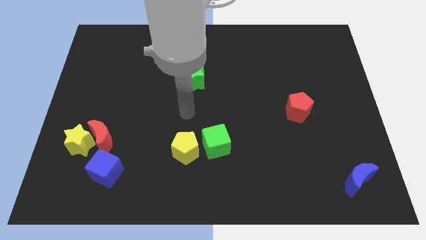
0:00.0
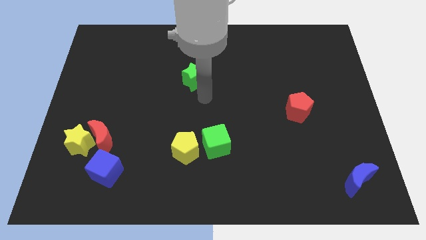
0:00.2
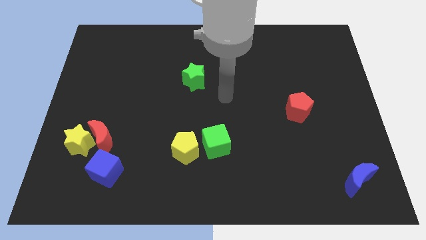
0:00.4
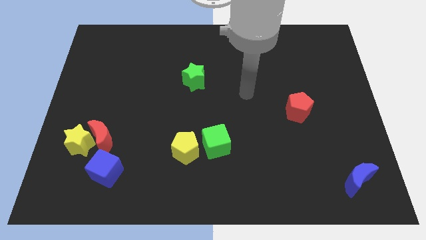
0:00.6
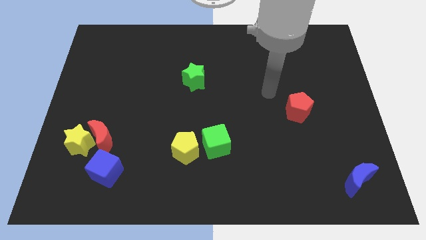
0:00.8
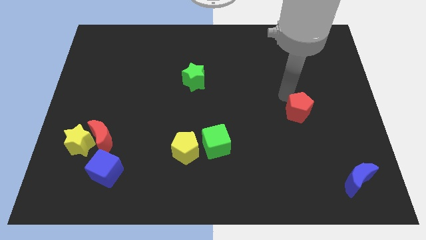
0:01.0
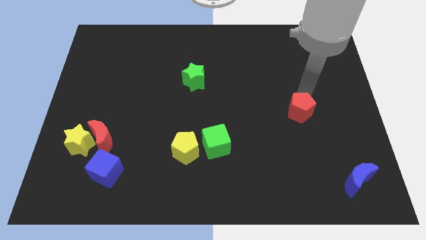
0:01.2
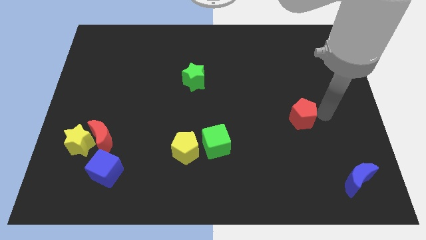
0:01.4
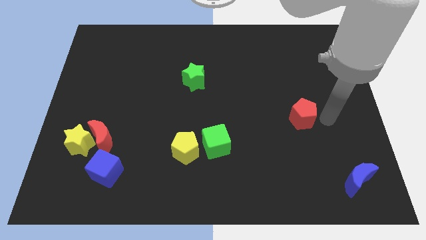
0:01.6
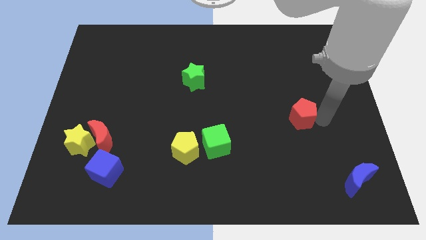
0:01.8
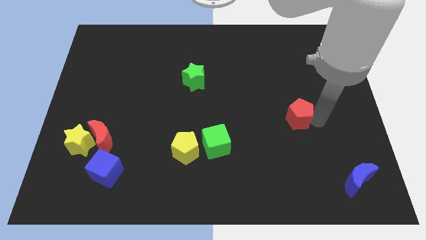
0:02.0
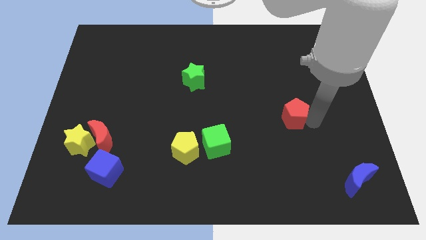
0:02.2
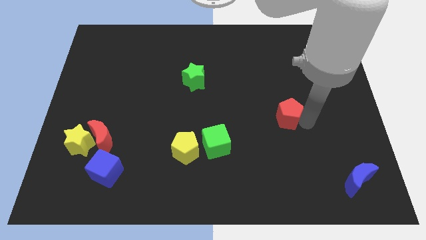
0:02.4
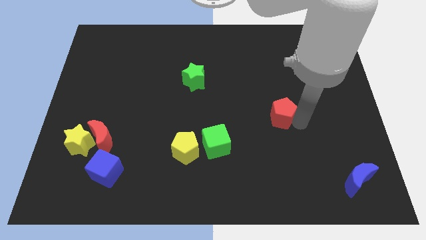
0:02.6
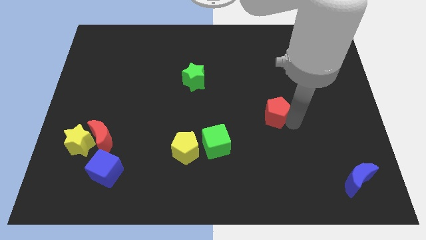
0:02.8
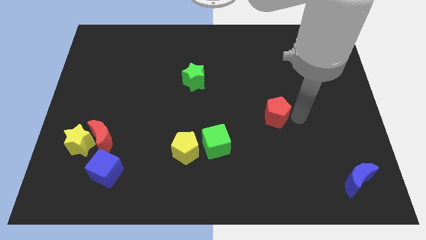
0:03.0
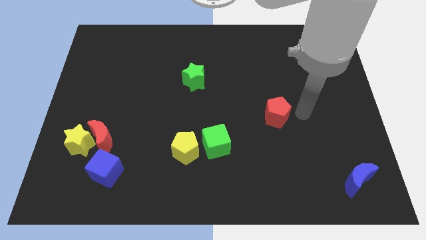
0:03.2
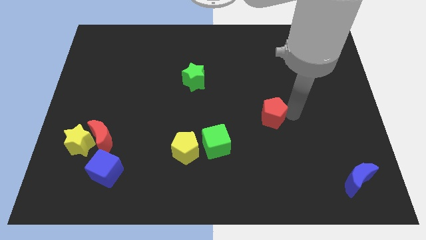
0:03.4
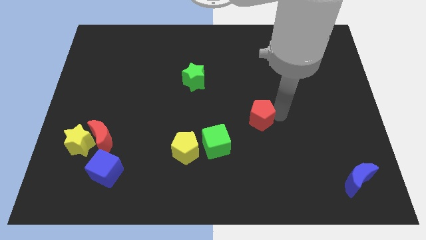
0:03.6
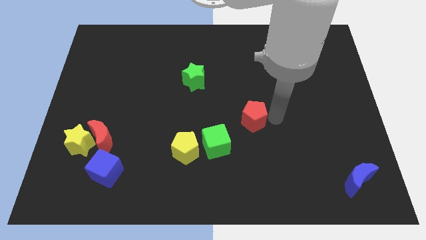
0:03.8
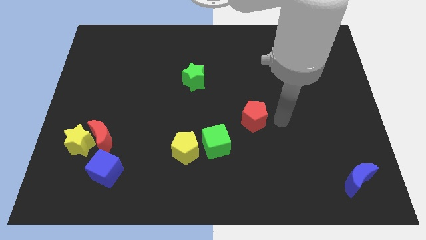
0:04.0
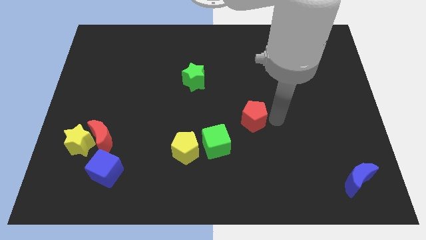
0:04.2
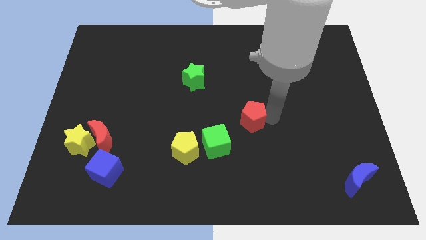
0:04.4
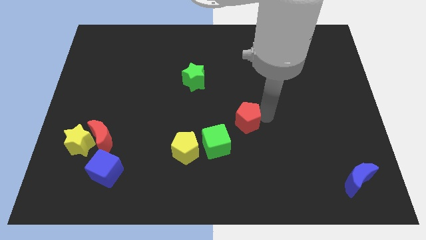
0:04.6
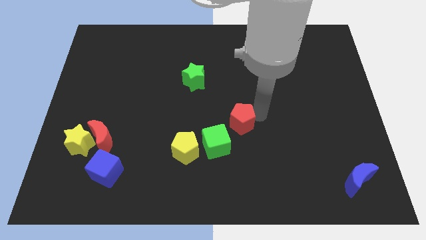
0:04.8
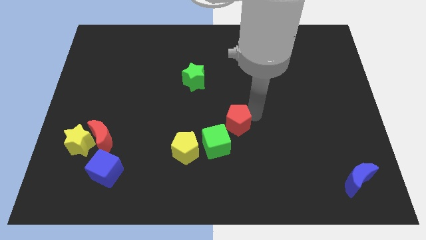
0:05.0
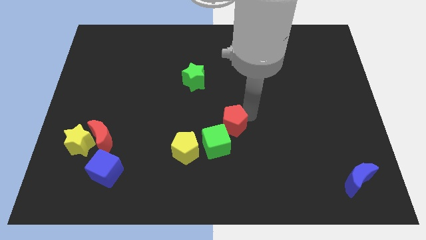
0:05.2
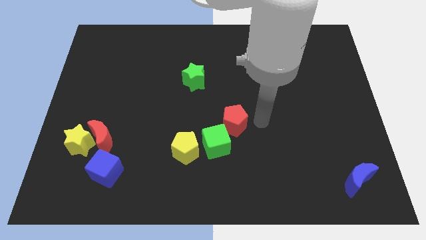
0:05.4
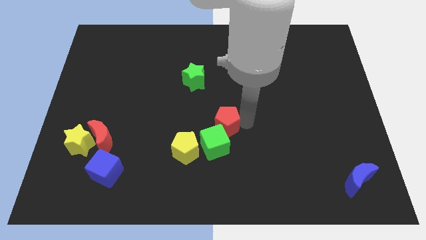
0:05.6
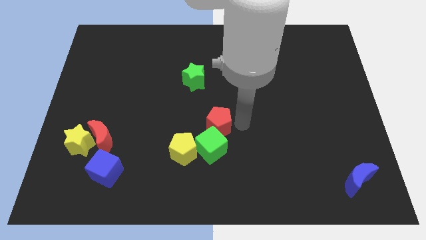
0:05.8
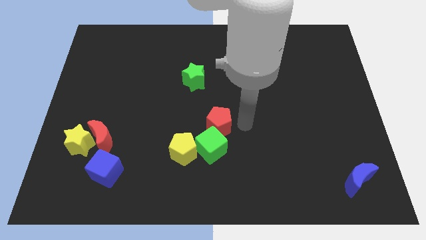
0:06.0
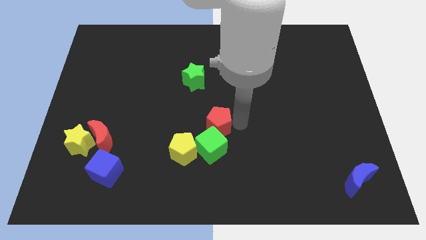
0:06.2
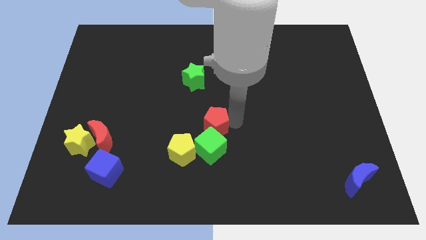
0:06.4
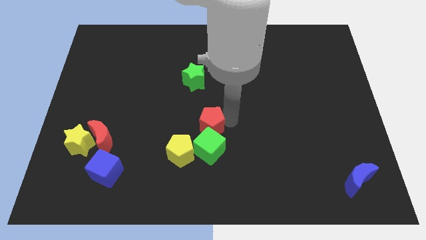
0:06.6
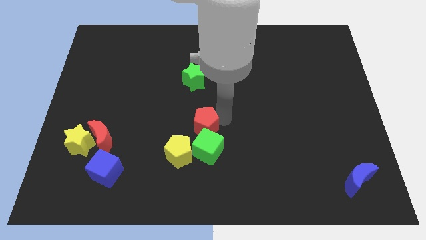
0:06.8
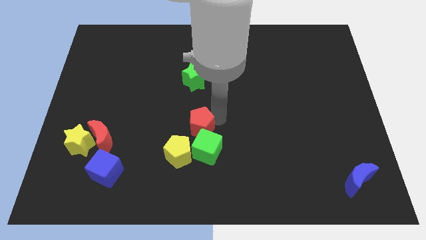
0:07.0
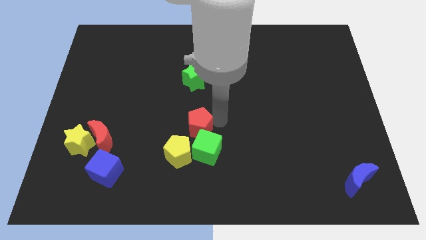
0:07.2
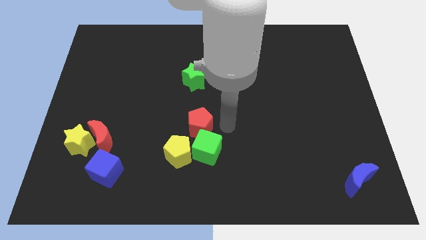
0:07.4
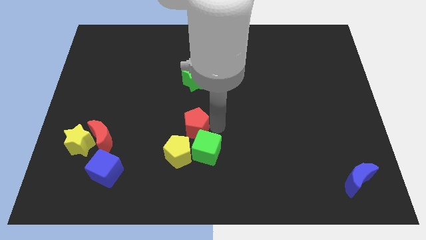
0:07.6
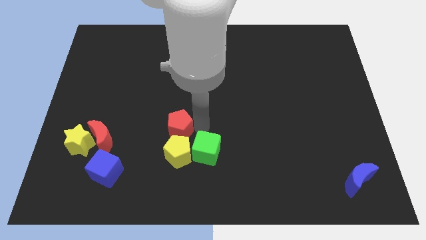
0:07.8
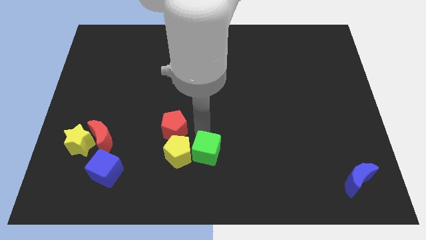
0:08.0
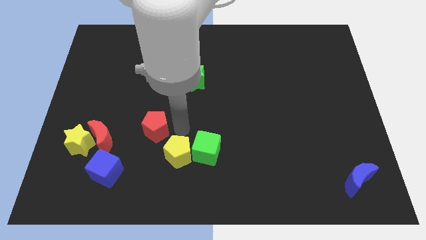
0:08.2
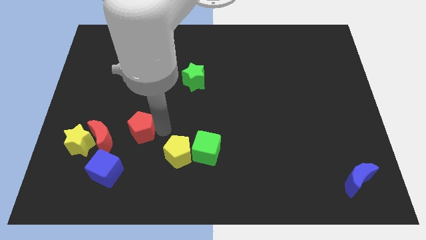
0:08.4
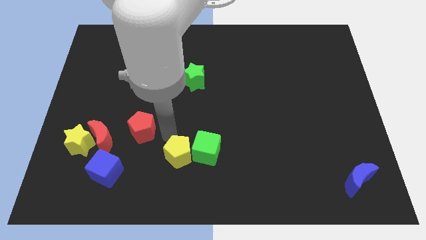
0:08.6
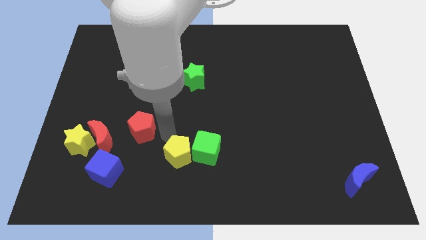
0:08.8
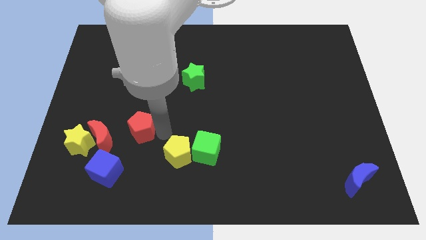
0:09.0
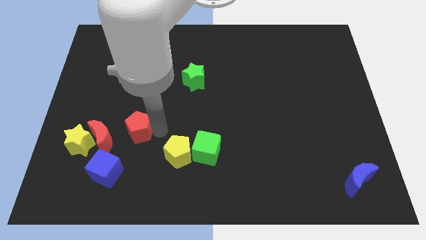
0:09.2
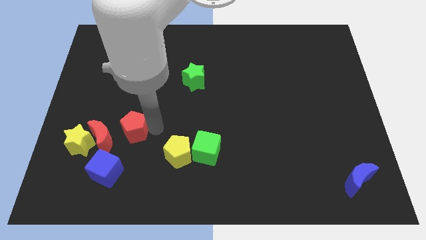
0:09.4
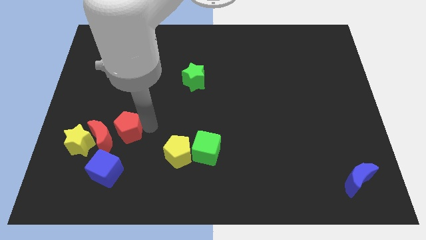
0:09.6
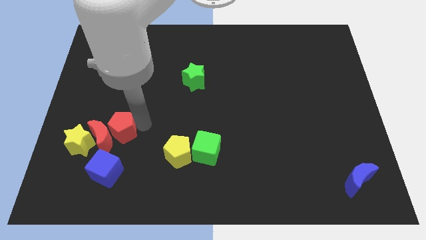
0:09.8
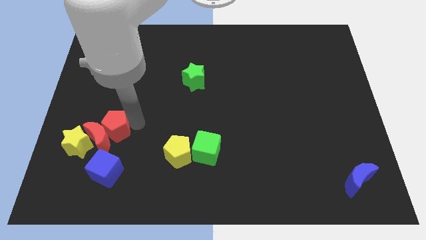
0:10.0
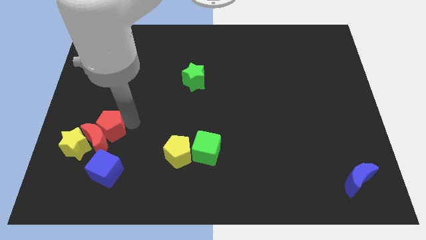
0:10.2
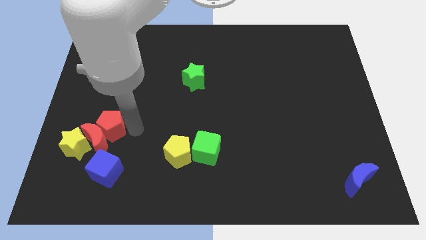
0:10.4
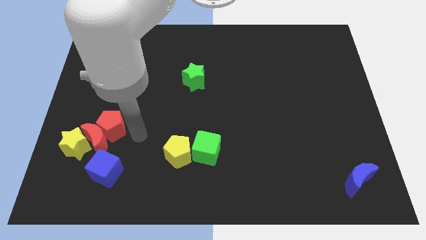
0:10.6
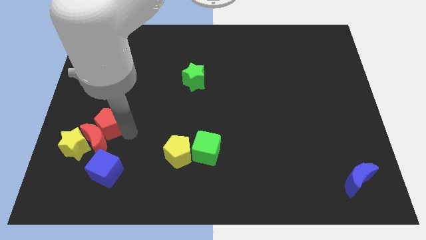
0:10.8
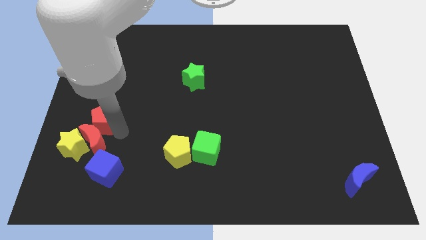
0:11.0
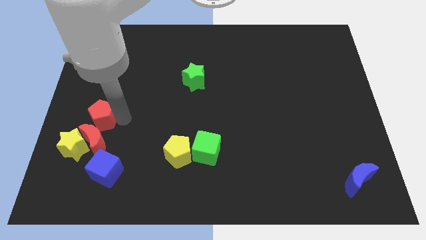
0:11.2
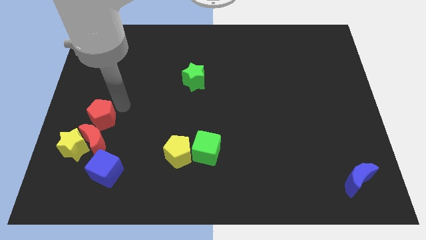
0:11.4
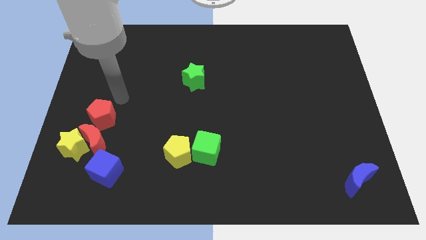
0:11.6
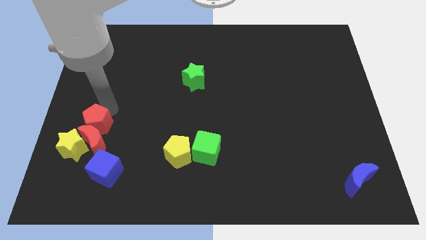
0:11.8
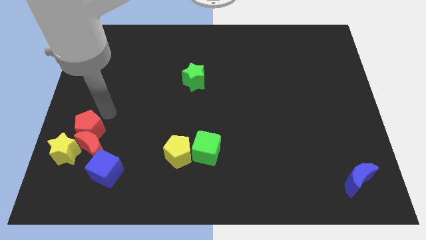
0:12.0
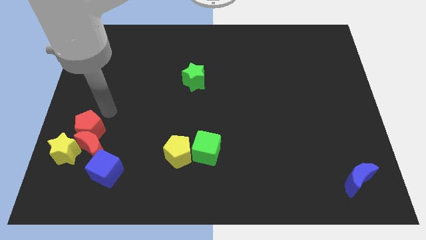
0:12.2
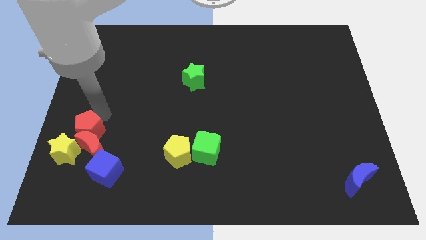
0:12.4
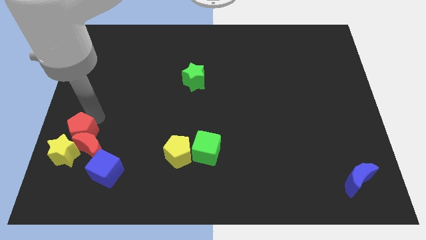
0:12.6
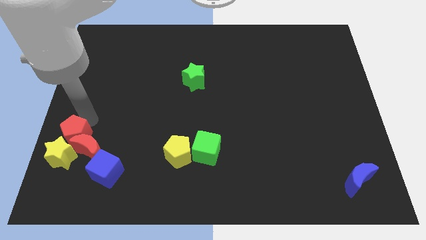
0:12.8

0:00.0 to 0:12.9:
slide the red pentagon next to the yellow star
